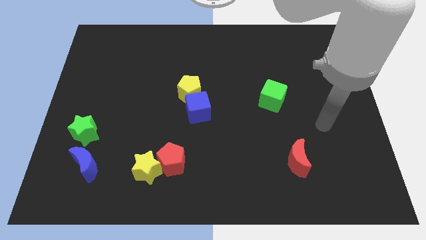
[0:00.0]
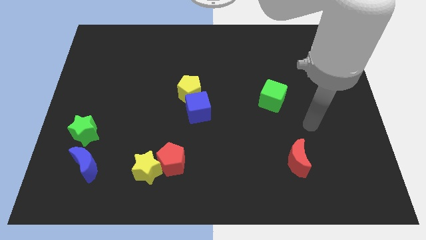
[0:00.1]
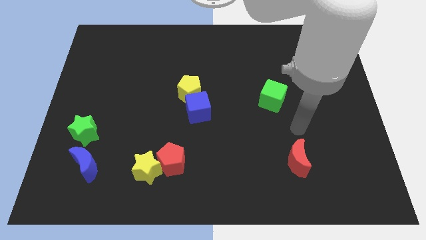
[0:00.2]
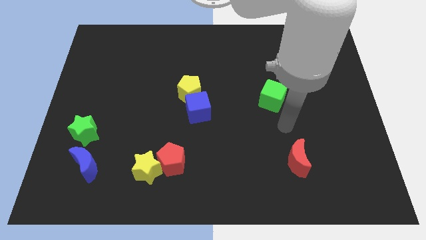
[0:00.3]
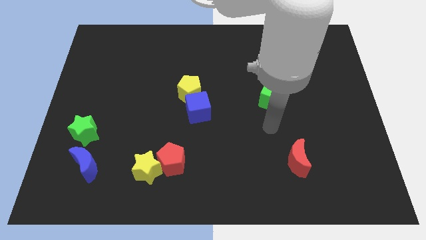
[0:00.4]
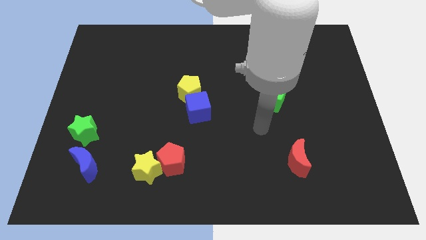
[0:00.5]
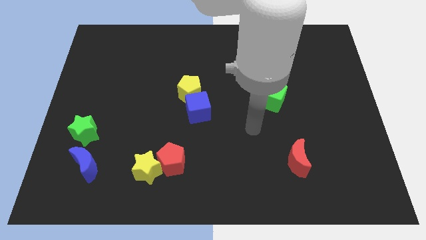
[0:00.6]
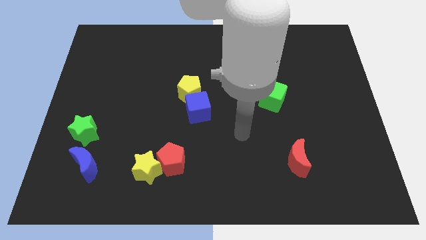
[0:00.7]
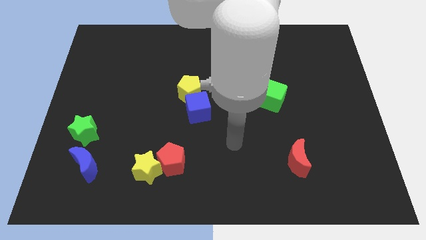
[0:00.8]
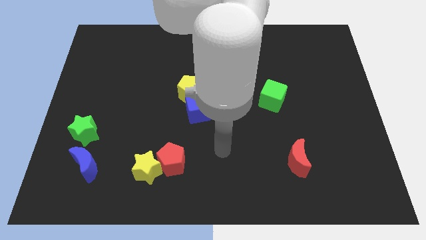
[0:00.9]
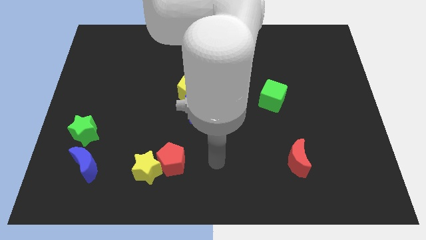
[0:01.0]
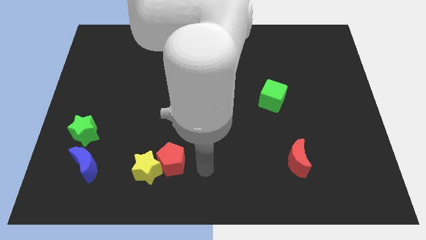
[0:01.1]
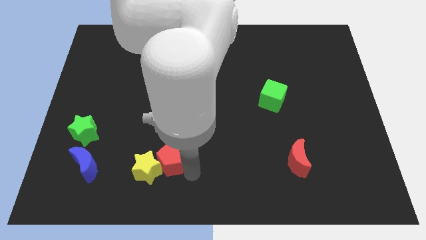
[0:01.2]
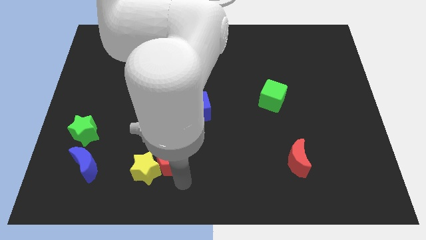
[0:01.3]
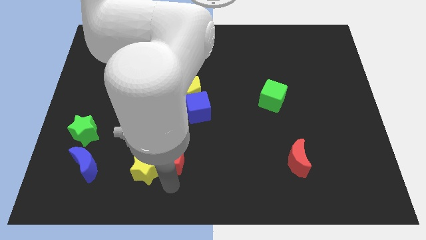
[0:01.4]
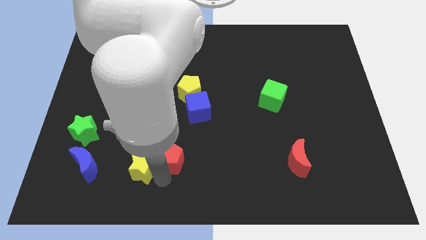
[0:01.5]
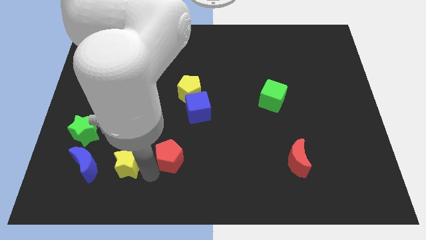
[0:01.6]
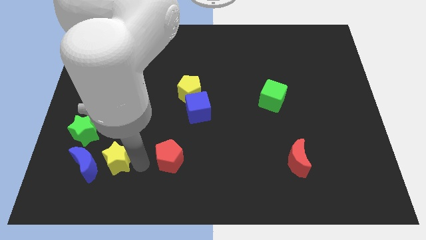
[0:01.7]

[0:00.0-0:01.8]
move the red pentagon away from the yellow star

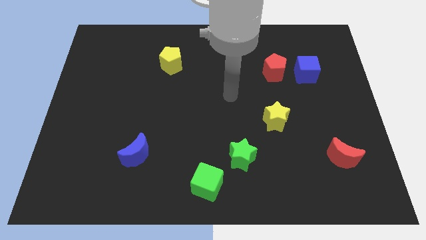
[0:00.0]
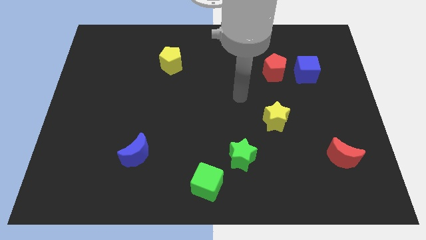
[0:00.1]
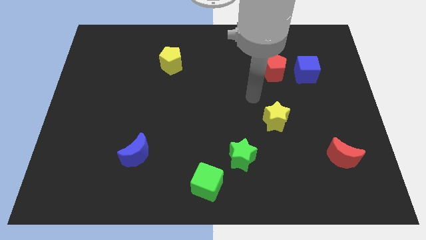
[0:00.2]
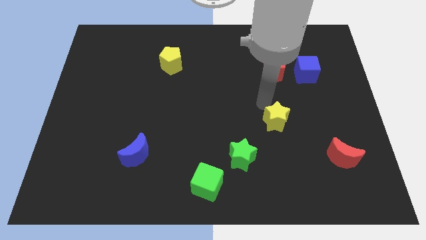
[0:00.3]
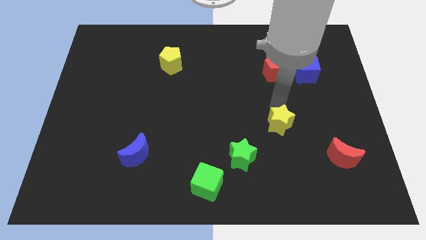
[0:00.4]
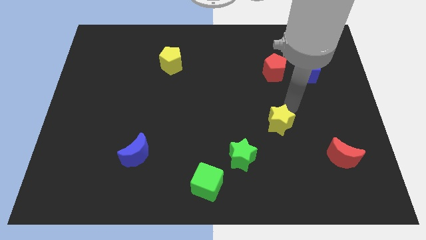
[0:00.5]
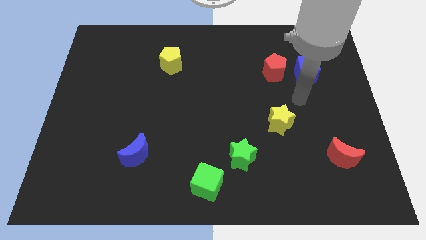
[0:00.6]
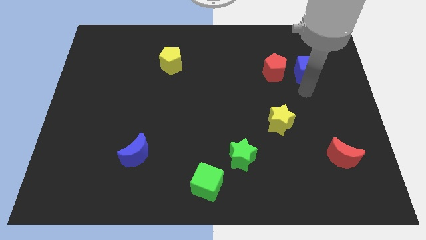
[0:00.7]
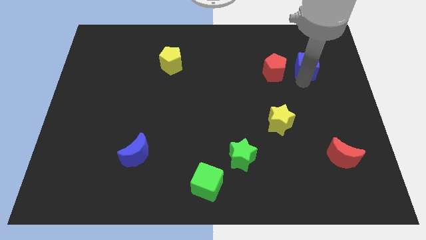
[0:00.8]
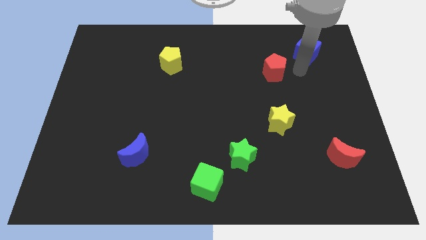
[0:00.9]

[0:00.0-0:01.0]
separate the red pentagon from the blue cube

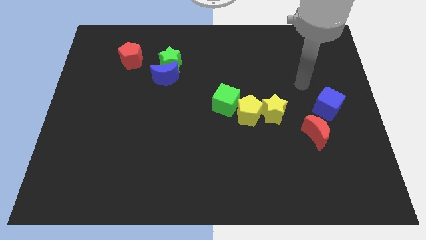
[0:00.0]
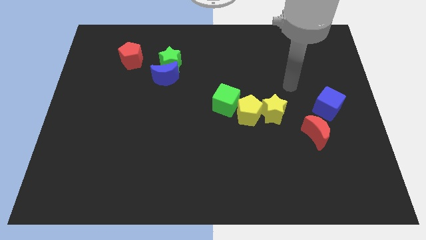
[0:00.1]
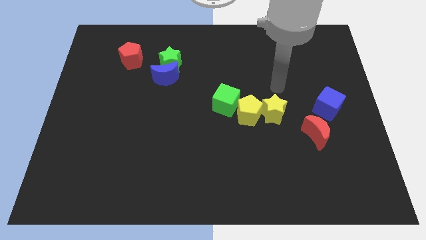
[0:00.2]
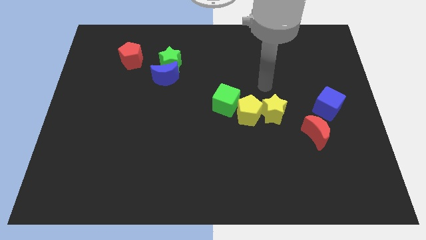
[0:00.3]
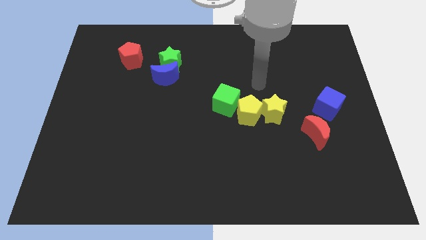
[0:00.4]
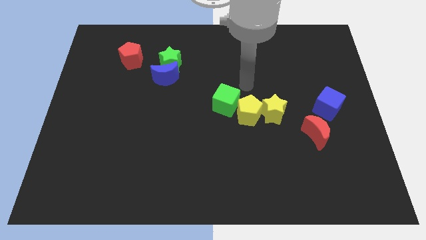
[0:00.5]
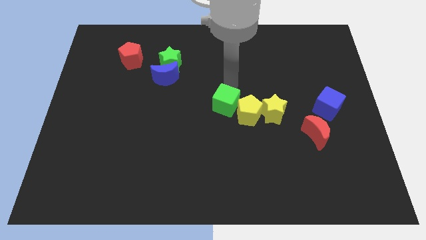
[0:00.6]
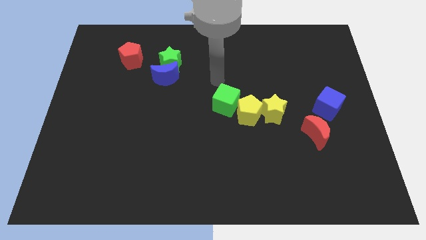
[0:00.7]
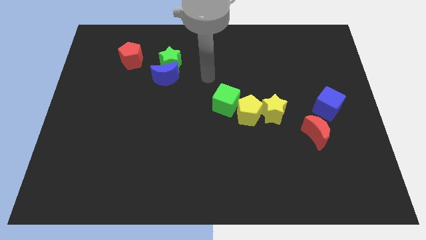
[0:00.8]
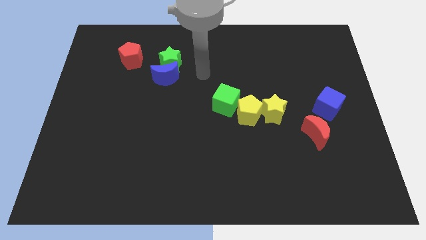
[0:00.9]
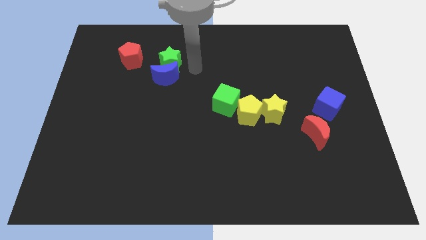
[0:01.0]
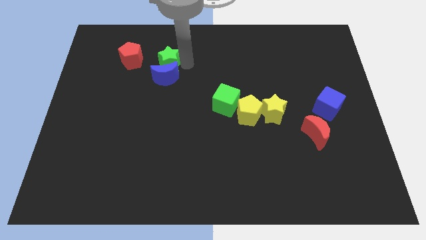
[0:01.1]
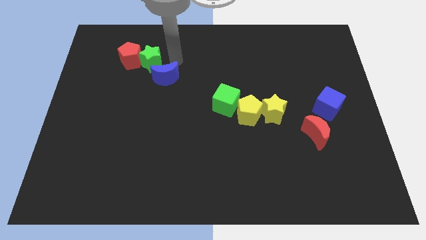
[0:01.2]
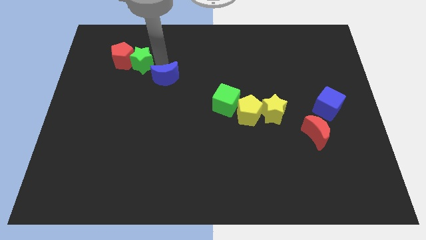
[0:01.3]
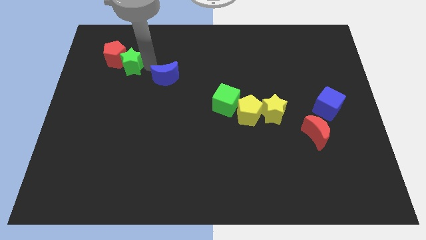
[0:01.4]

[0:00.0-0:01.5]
separate the blue moon from the green star

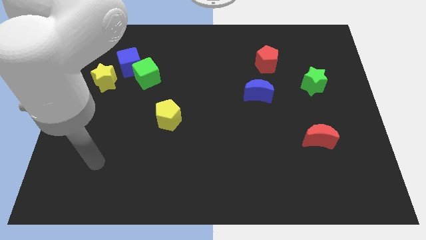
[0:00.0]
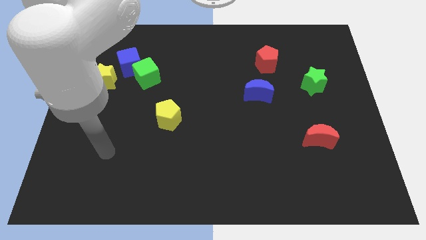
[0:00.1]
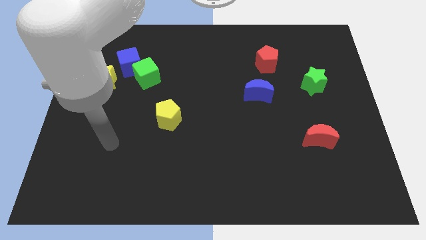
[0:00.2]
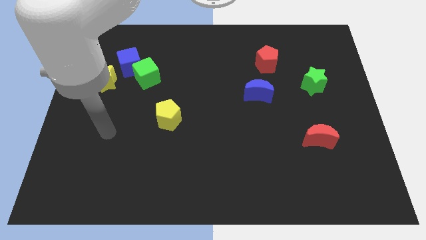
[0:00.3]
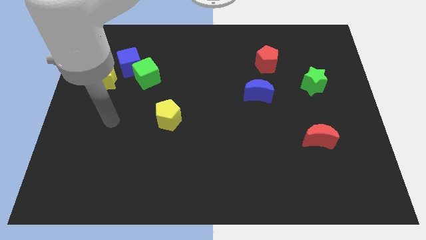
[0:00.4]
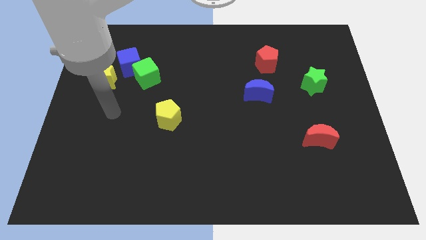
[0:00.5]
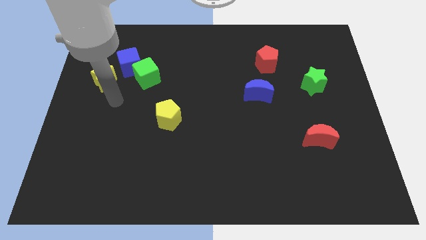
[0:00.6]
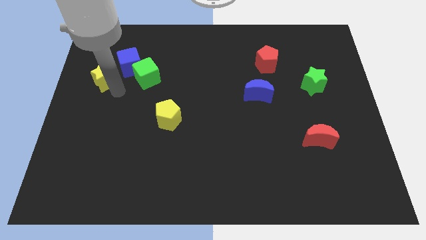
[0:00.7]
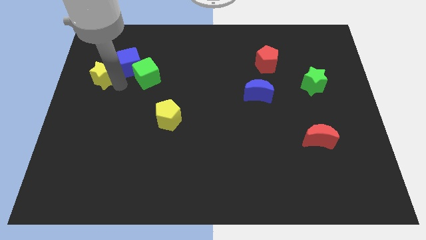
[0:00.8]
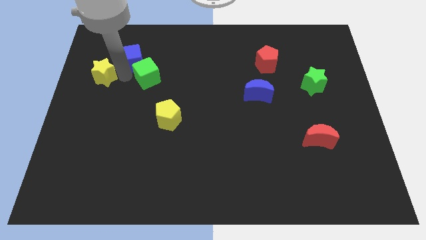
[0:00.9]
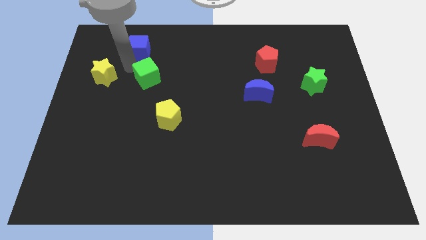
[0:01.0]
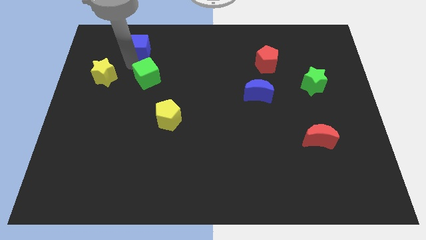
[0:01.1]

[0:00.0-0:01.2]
pull the green cube apart from the blue cube

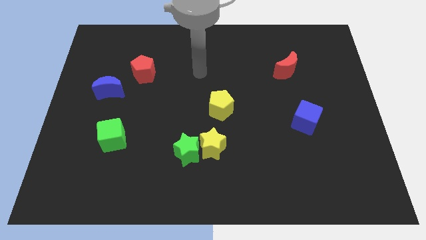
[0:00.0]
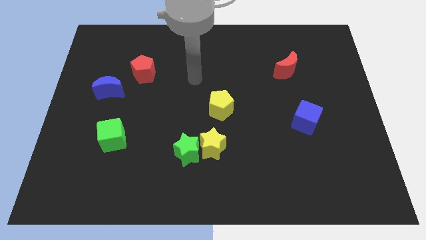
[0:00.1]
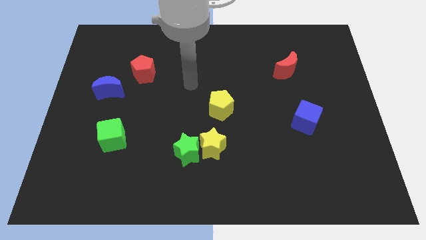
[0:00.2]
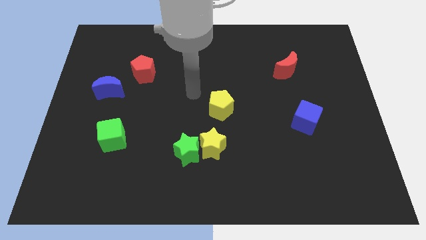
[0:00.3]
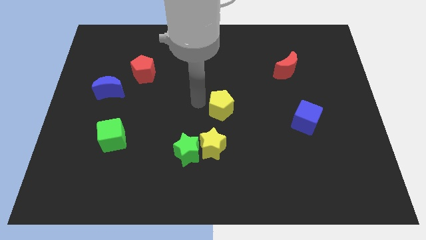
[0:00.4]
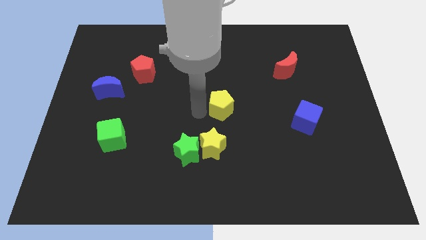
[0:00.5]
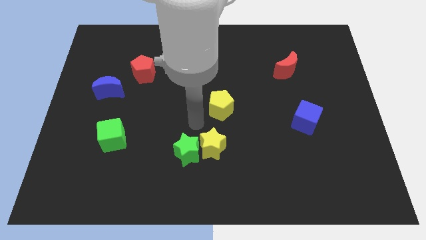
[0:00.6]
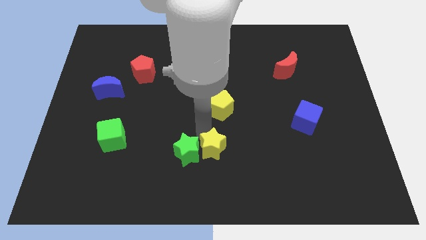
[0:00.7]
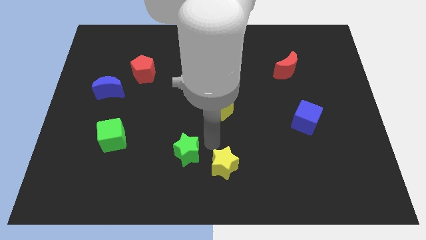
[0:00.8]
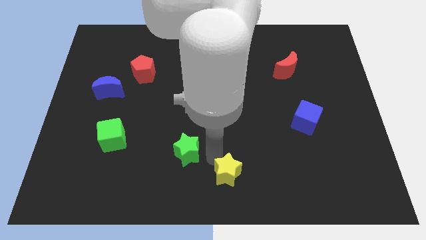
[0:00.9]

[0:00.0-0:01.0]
move the green star away from the yellow star

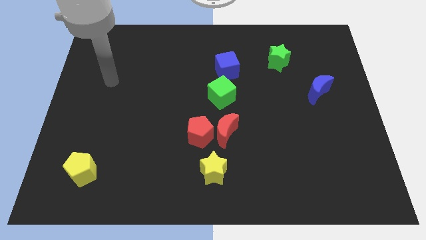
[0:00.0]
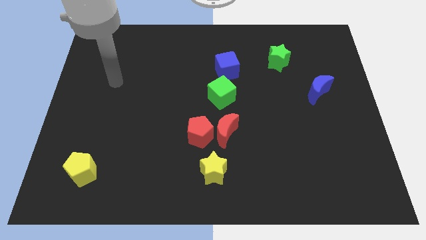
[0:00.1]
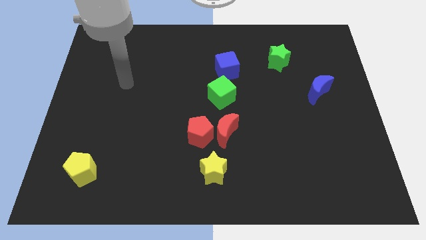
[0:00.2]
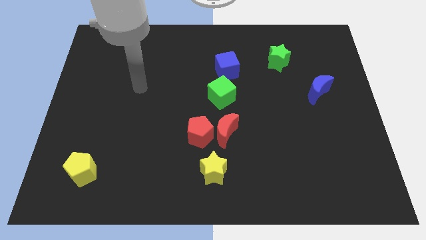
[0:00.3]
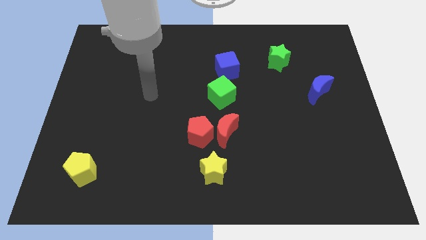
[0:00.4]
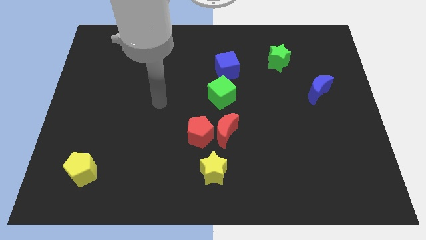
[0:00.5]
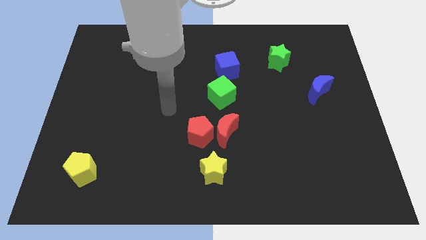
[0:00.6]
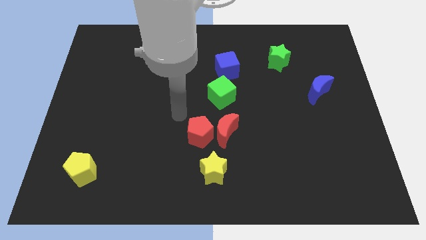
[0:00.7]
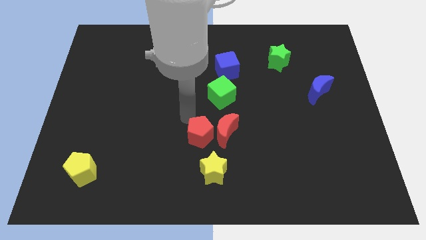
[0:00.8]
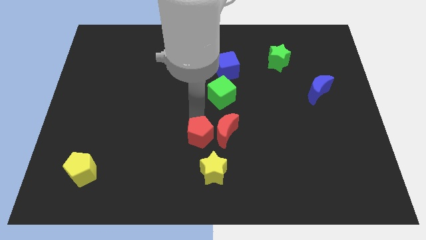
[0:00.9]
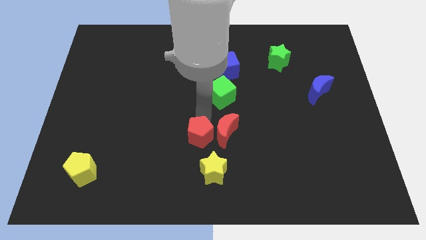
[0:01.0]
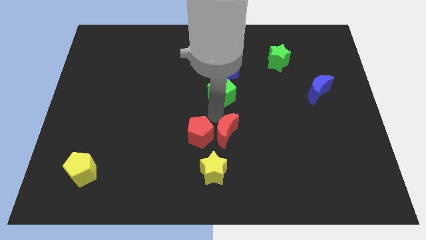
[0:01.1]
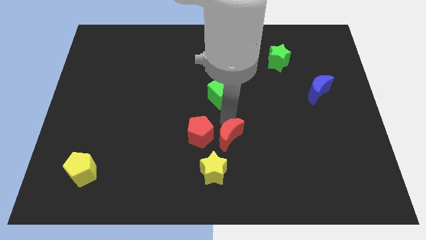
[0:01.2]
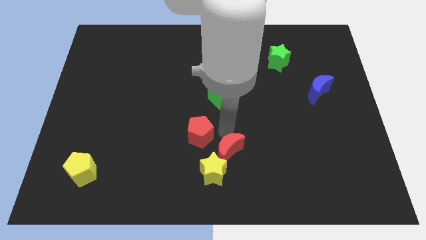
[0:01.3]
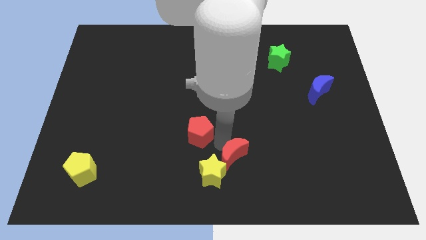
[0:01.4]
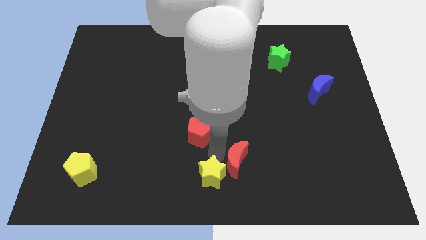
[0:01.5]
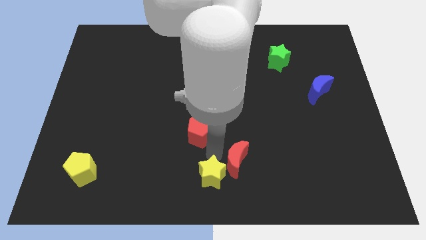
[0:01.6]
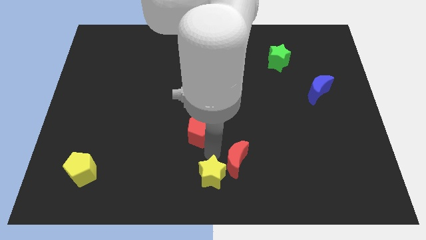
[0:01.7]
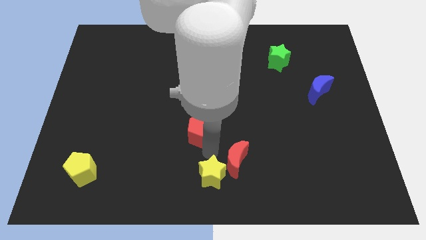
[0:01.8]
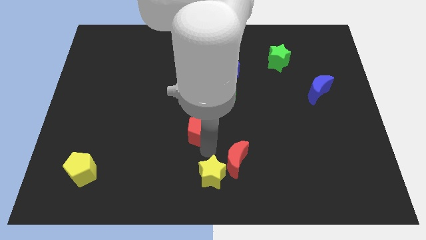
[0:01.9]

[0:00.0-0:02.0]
pull the red pentagon apart from the red moon and yellow star

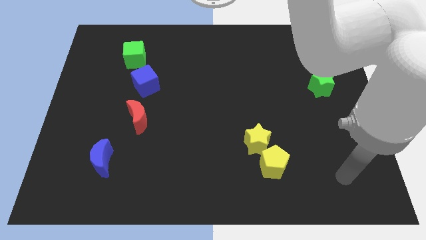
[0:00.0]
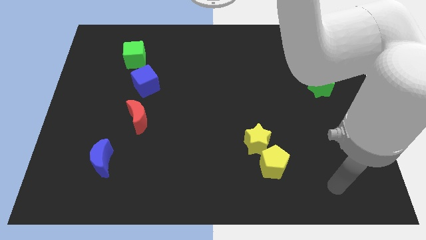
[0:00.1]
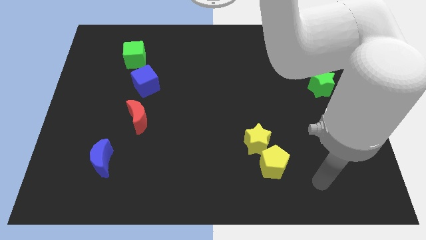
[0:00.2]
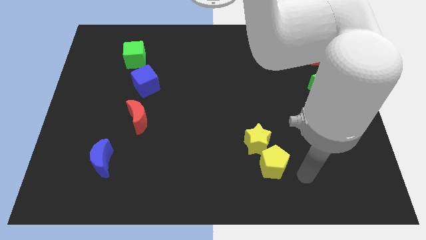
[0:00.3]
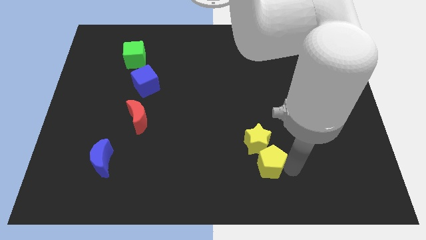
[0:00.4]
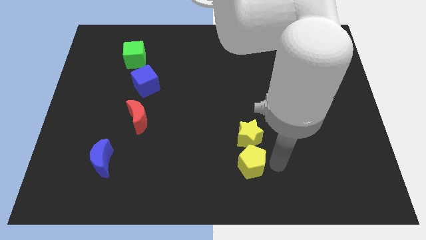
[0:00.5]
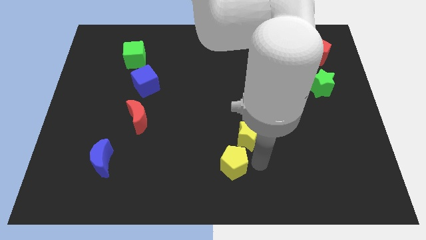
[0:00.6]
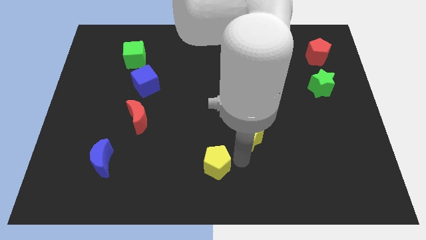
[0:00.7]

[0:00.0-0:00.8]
pull the yellow star apart from the yellow pentagon
